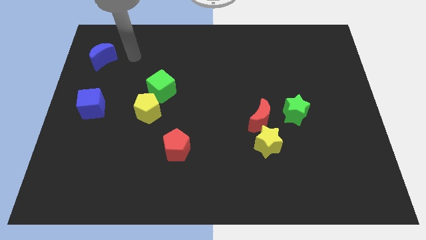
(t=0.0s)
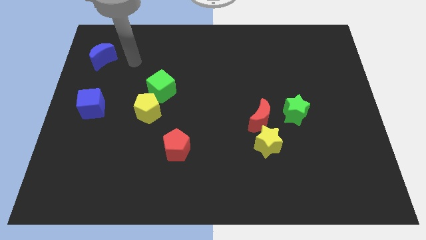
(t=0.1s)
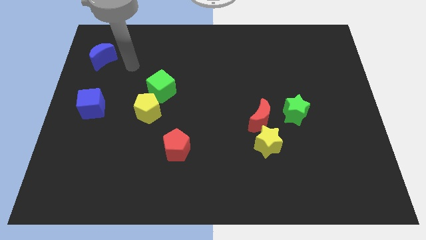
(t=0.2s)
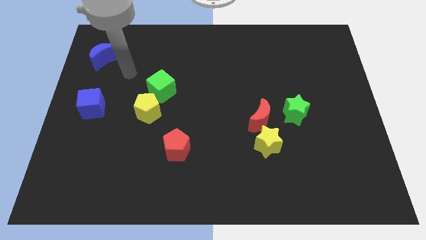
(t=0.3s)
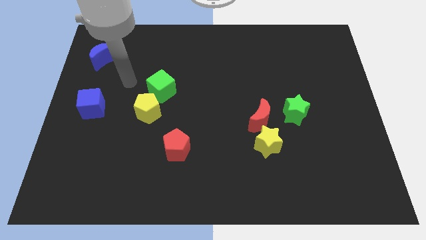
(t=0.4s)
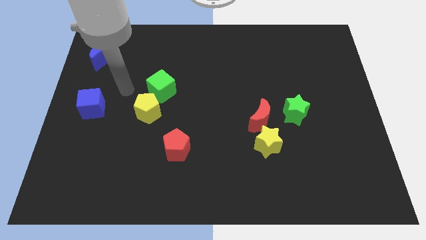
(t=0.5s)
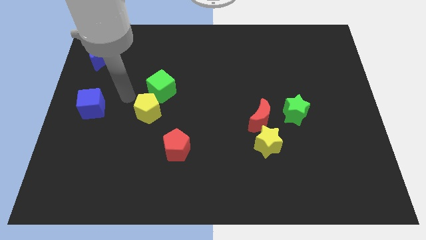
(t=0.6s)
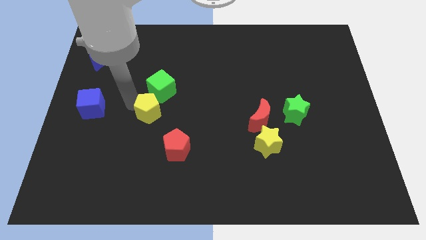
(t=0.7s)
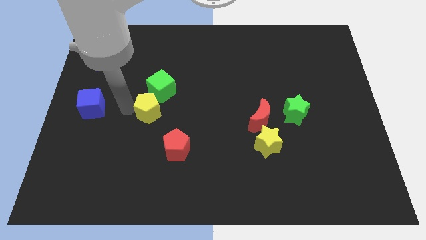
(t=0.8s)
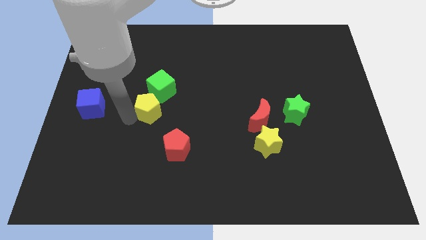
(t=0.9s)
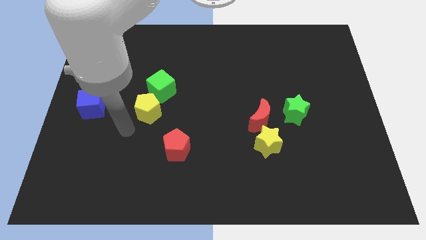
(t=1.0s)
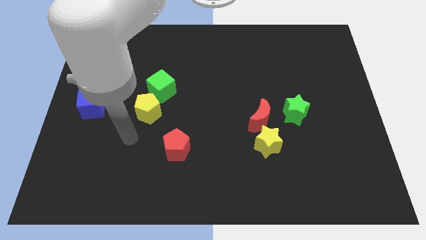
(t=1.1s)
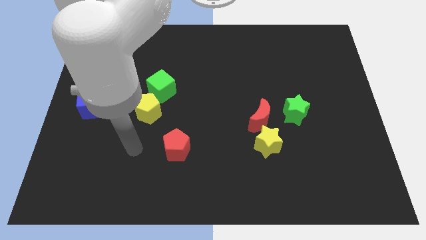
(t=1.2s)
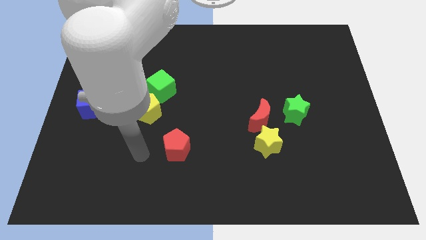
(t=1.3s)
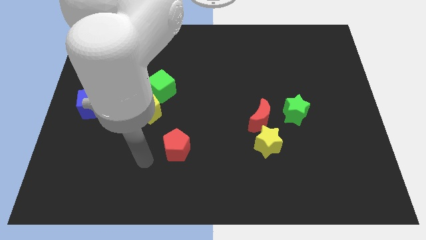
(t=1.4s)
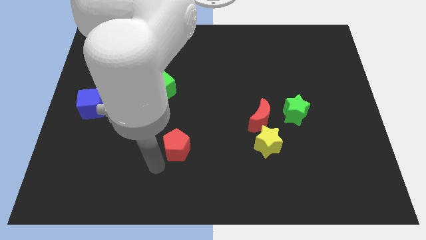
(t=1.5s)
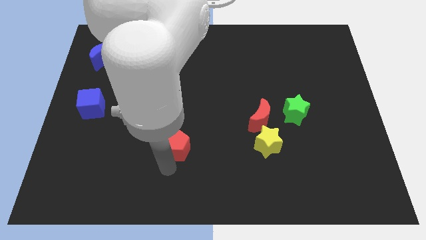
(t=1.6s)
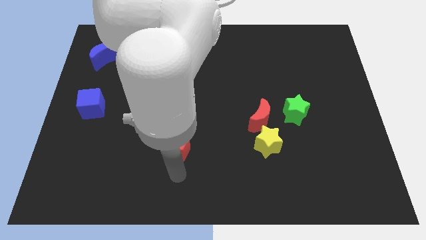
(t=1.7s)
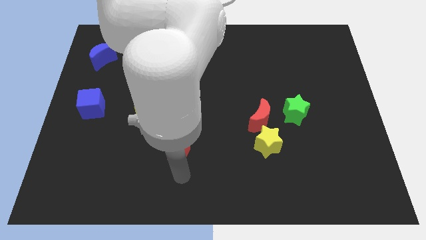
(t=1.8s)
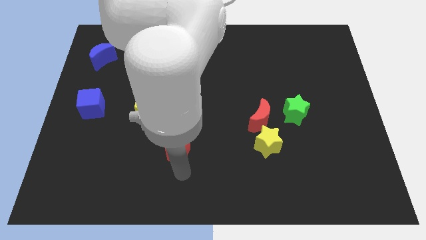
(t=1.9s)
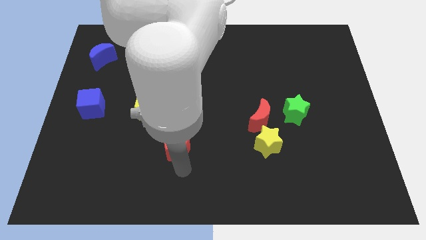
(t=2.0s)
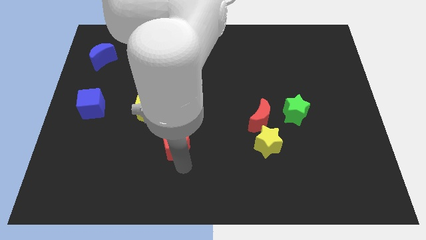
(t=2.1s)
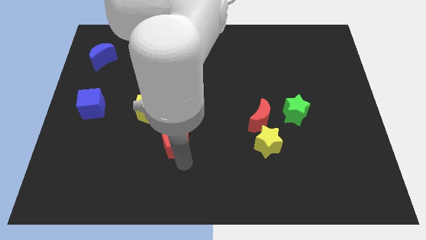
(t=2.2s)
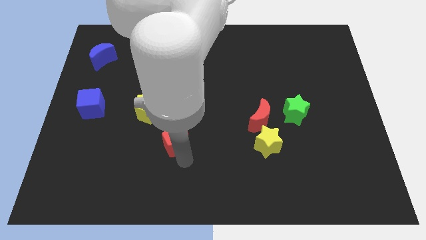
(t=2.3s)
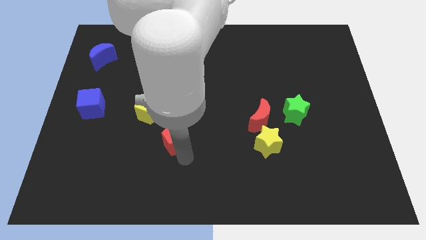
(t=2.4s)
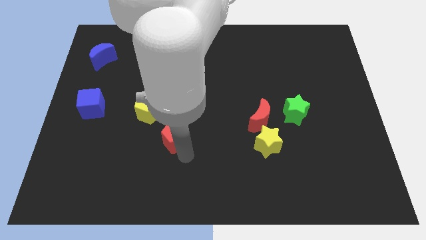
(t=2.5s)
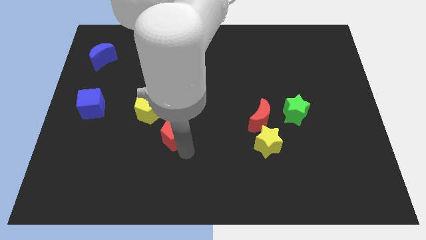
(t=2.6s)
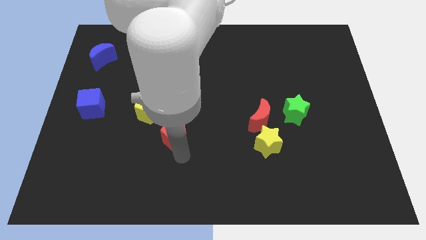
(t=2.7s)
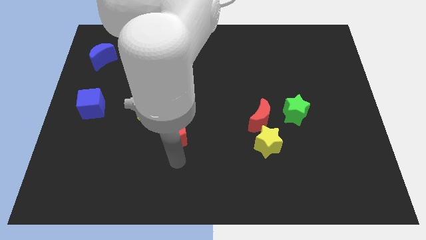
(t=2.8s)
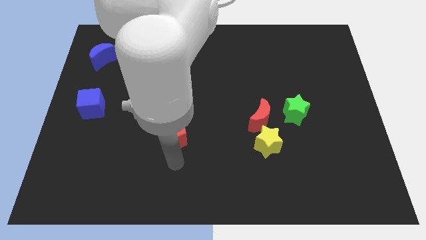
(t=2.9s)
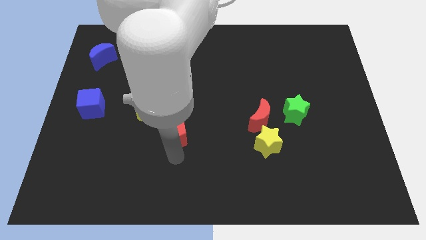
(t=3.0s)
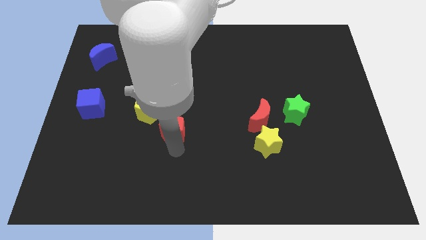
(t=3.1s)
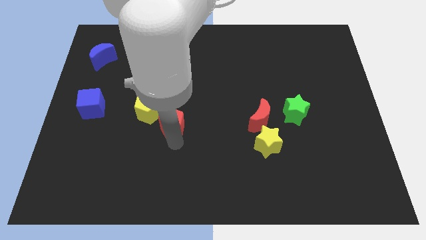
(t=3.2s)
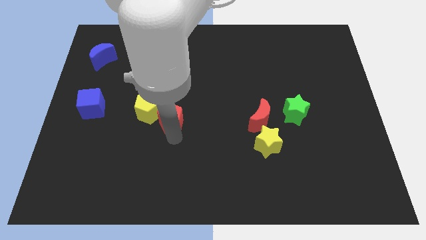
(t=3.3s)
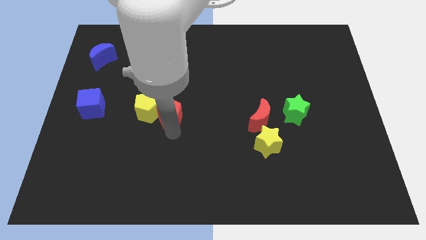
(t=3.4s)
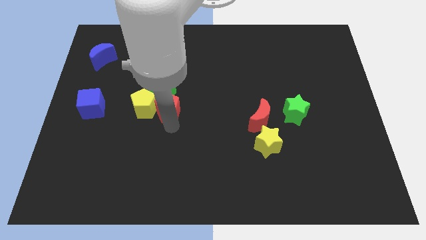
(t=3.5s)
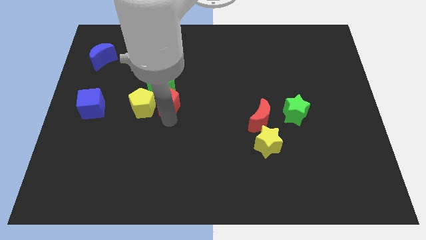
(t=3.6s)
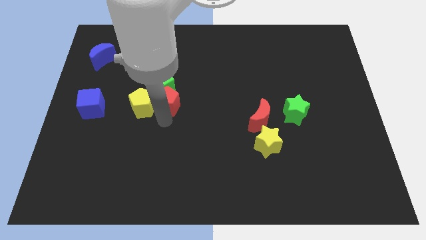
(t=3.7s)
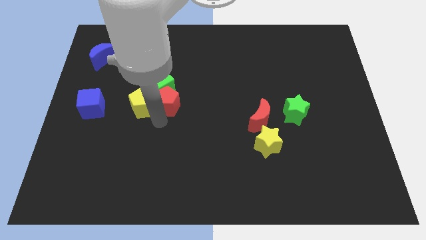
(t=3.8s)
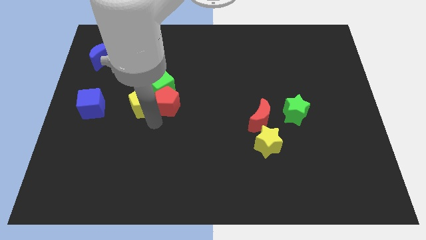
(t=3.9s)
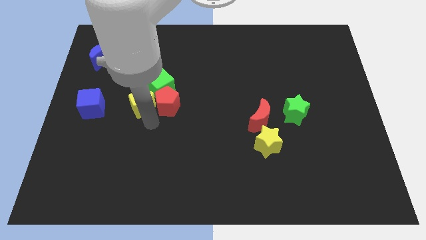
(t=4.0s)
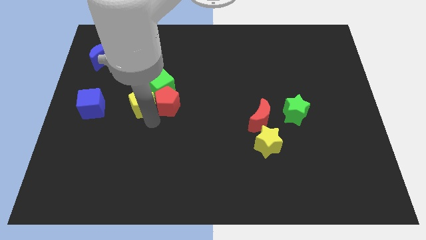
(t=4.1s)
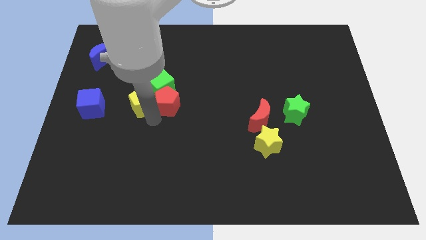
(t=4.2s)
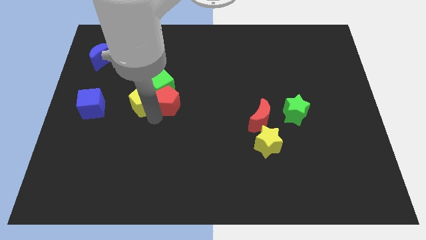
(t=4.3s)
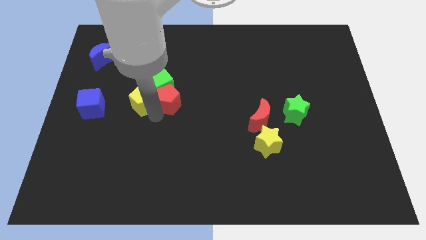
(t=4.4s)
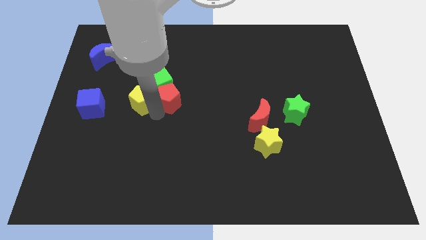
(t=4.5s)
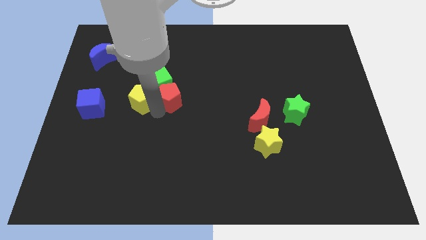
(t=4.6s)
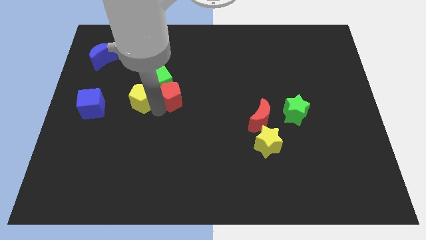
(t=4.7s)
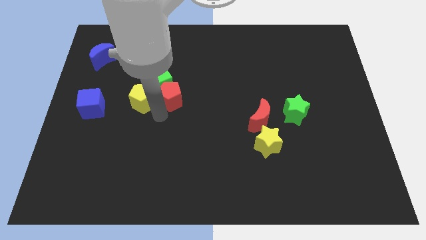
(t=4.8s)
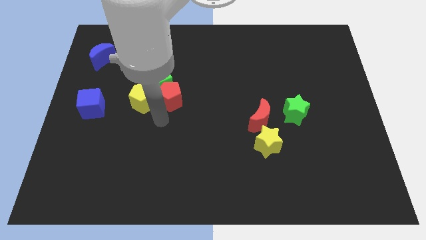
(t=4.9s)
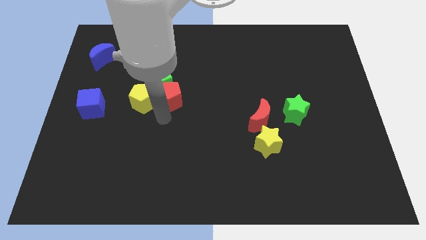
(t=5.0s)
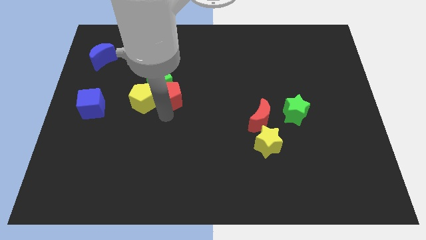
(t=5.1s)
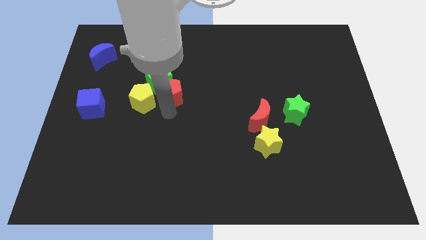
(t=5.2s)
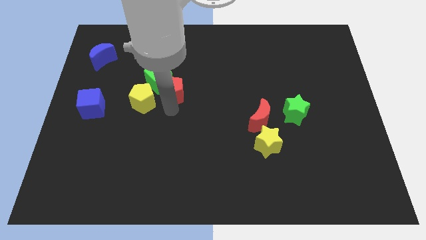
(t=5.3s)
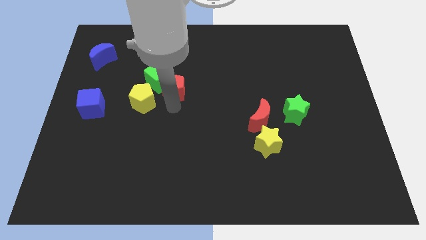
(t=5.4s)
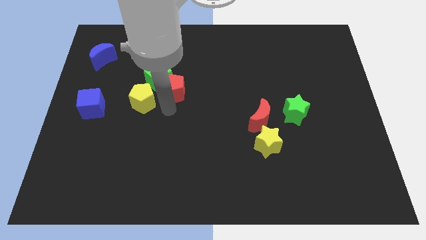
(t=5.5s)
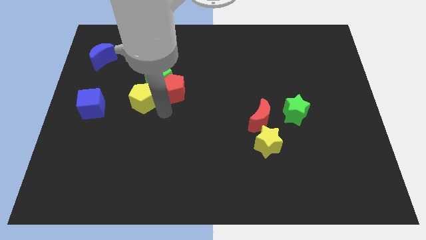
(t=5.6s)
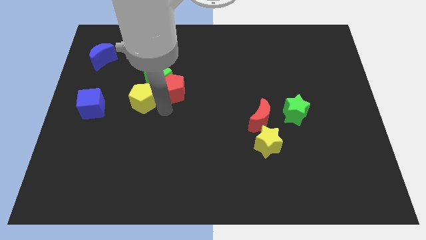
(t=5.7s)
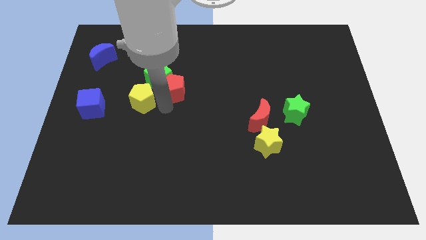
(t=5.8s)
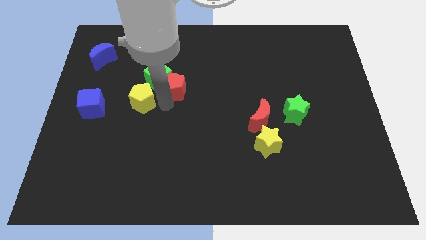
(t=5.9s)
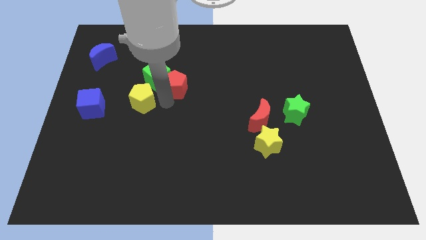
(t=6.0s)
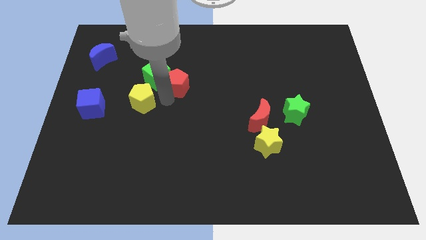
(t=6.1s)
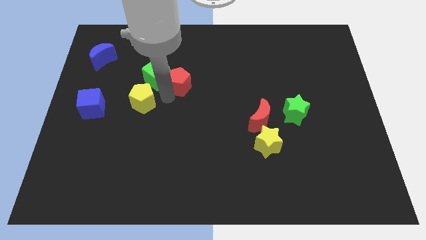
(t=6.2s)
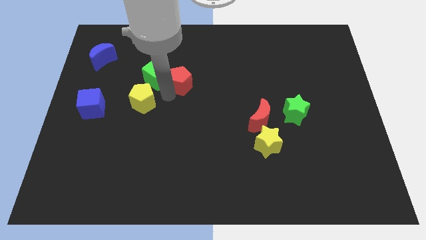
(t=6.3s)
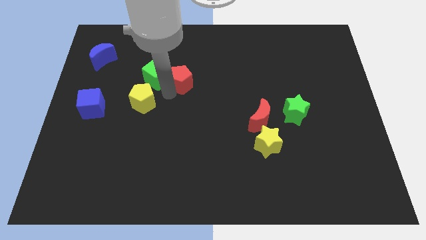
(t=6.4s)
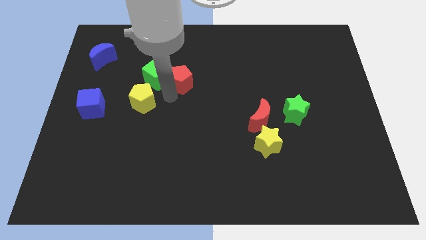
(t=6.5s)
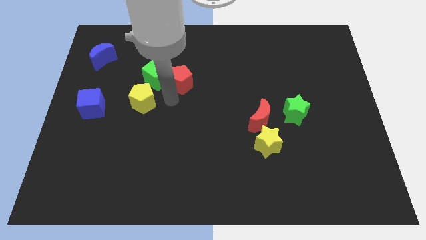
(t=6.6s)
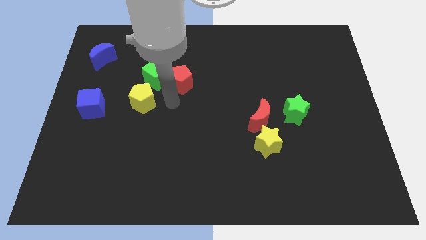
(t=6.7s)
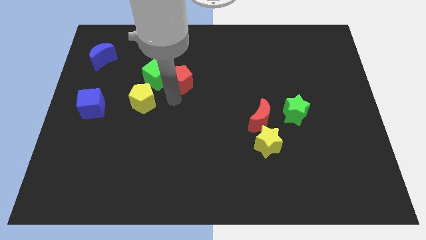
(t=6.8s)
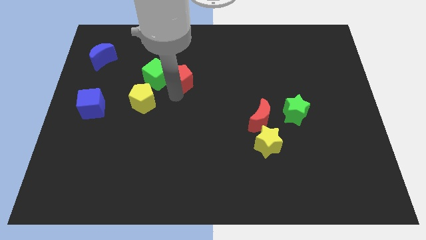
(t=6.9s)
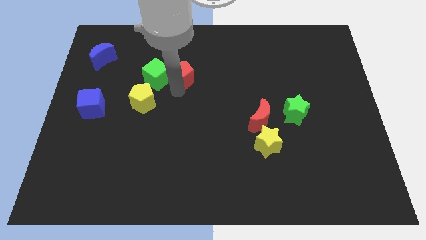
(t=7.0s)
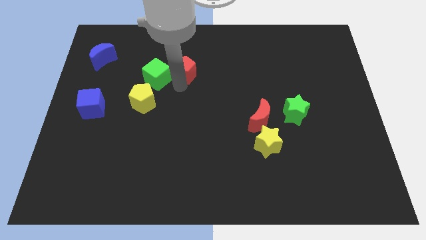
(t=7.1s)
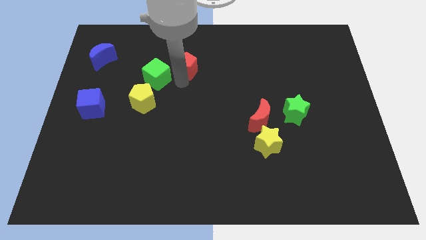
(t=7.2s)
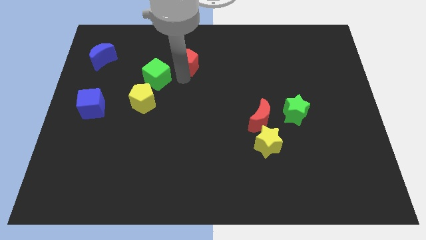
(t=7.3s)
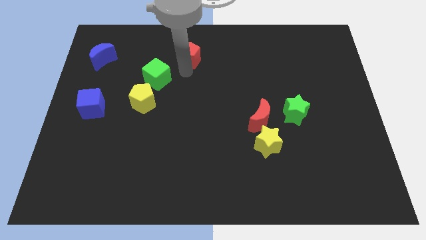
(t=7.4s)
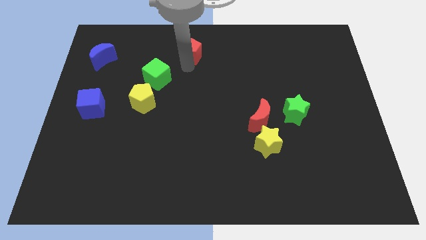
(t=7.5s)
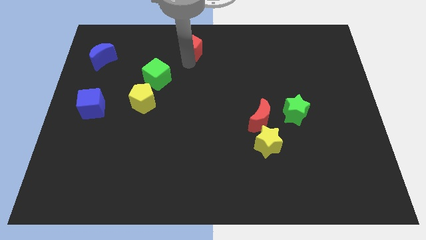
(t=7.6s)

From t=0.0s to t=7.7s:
slide the red pentagon to the top
